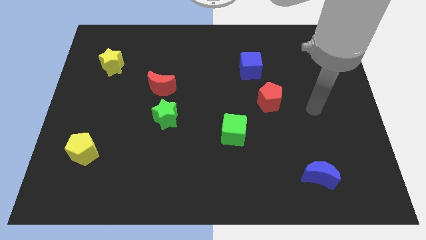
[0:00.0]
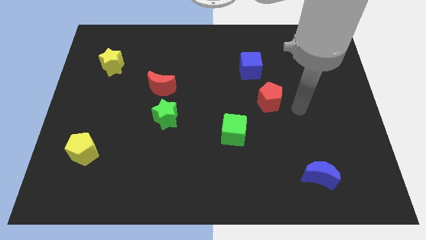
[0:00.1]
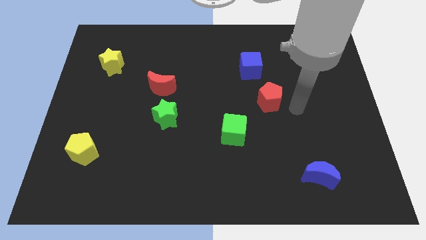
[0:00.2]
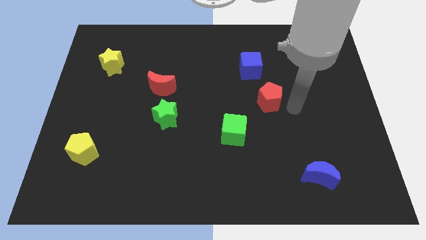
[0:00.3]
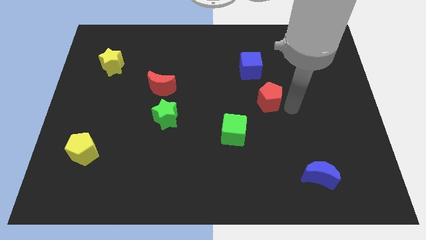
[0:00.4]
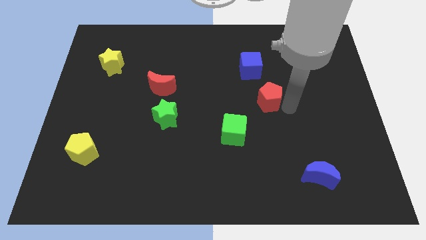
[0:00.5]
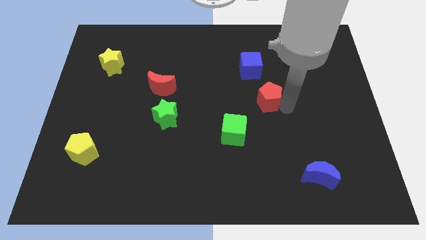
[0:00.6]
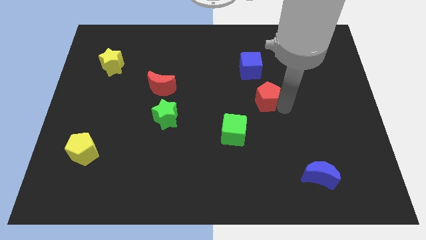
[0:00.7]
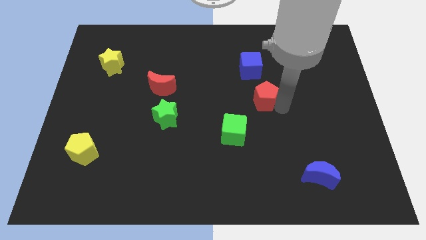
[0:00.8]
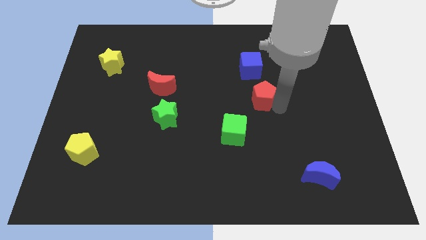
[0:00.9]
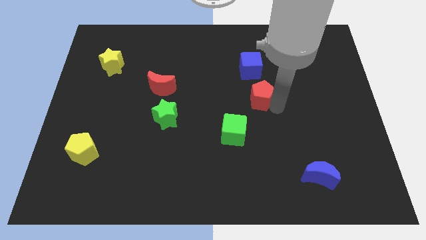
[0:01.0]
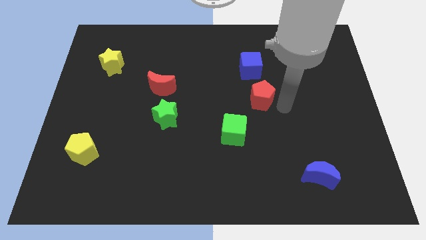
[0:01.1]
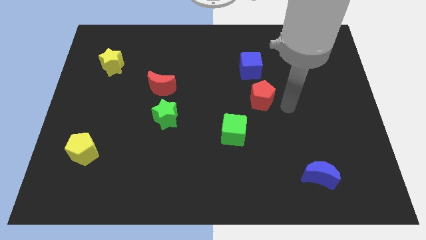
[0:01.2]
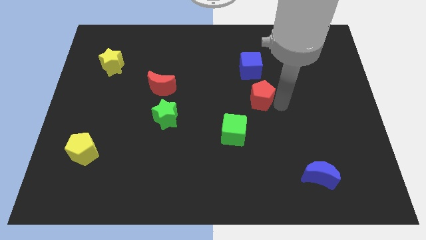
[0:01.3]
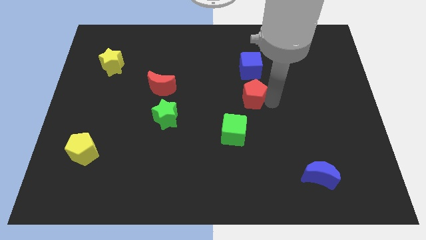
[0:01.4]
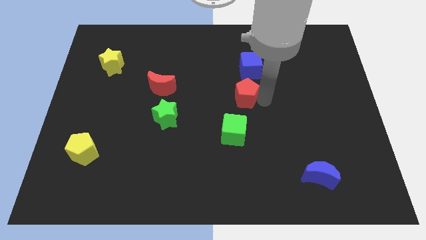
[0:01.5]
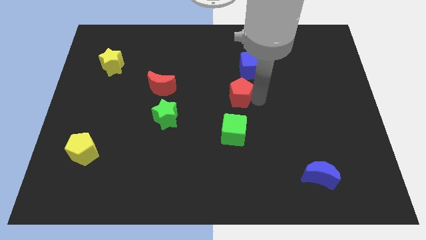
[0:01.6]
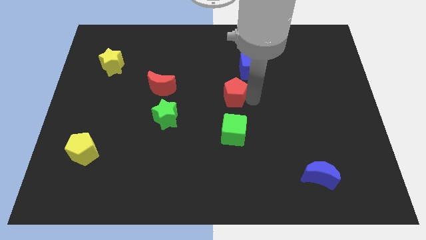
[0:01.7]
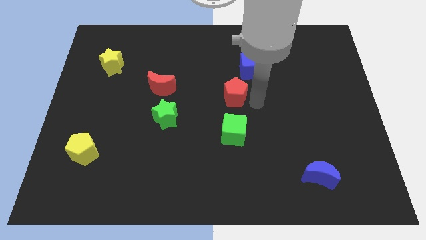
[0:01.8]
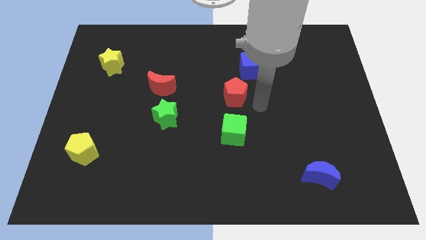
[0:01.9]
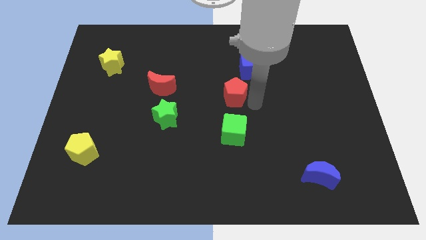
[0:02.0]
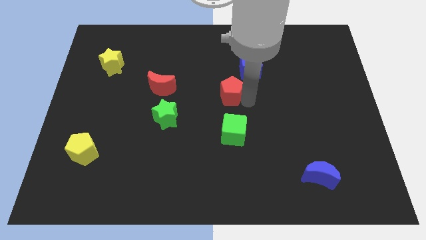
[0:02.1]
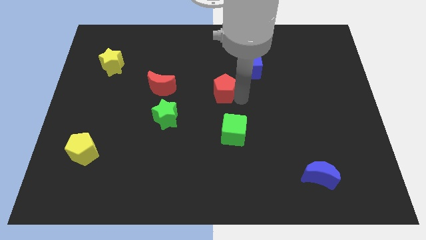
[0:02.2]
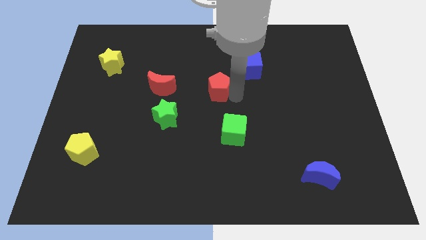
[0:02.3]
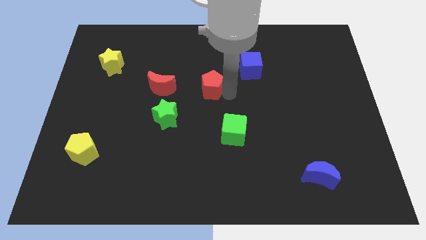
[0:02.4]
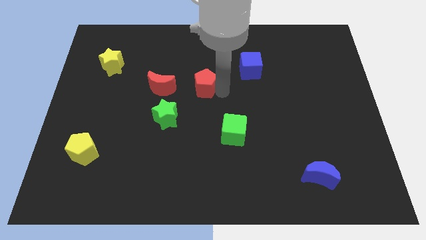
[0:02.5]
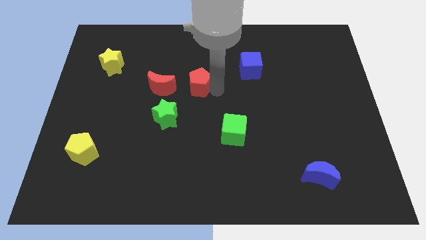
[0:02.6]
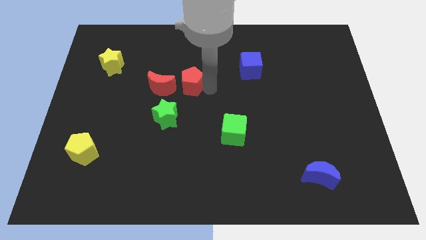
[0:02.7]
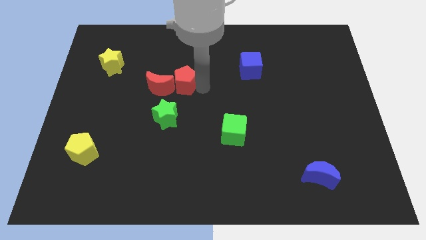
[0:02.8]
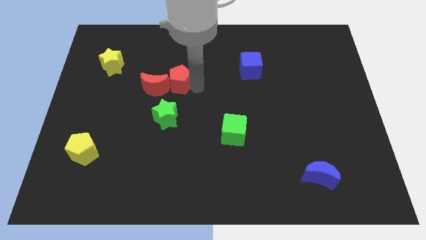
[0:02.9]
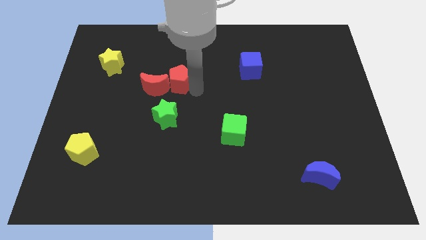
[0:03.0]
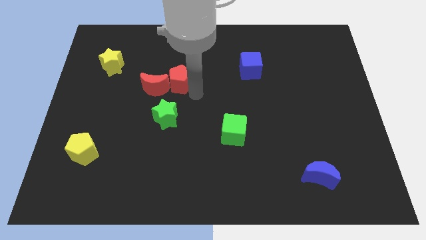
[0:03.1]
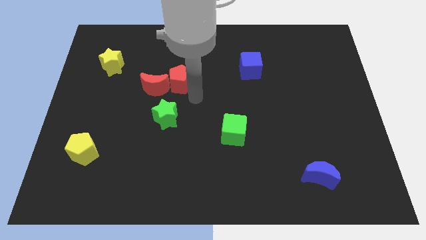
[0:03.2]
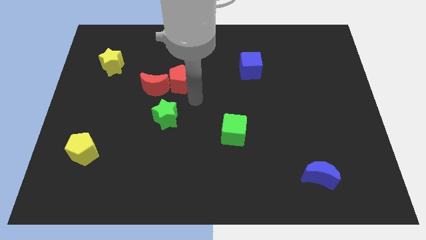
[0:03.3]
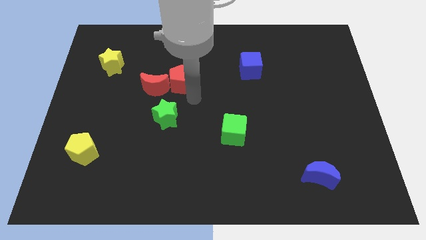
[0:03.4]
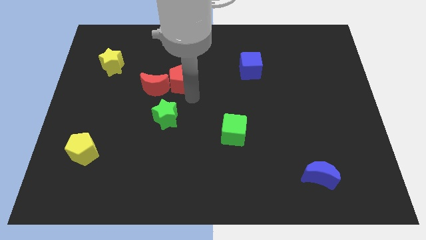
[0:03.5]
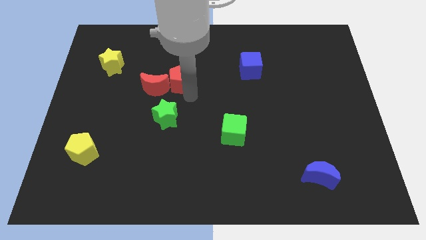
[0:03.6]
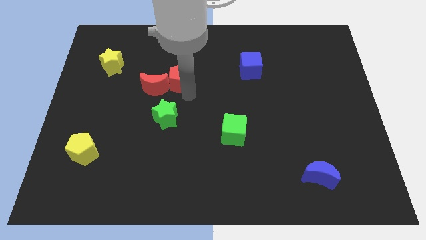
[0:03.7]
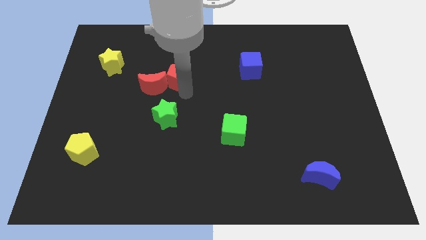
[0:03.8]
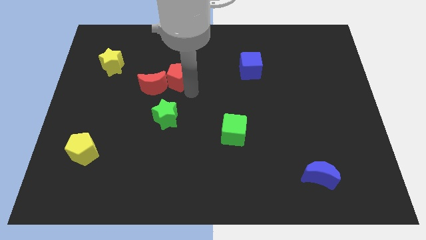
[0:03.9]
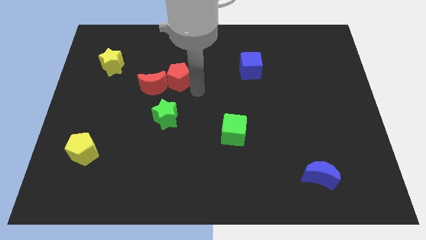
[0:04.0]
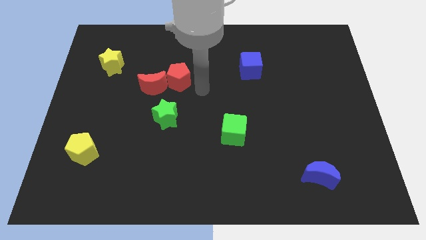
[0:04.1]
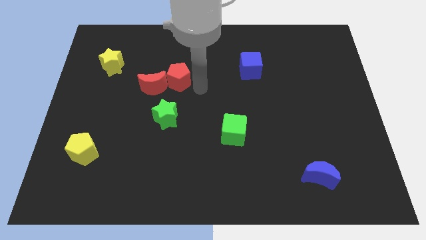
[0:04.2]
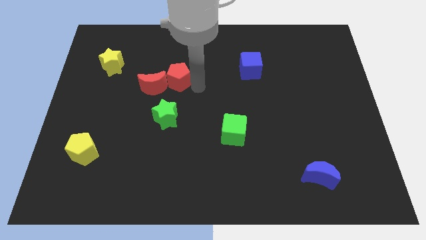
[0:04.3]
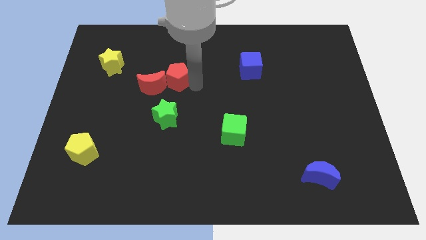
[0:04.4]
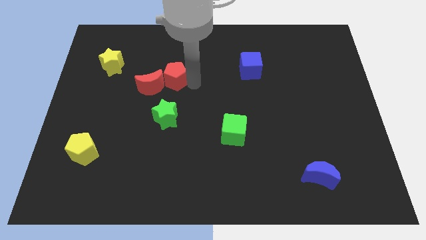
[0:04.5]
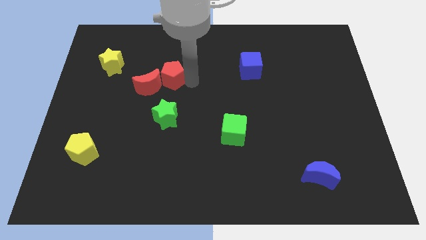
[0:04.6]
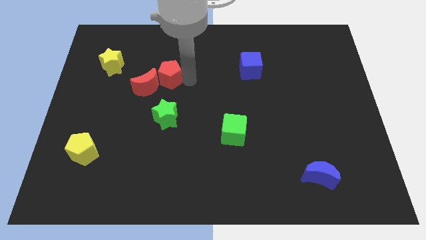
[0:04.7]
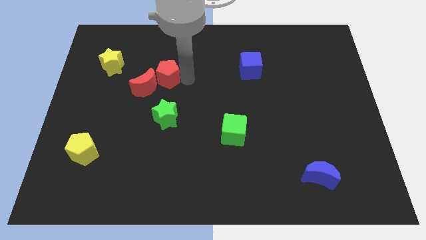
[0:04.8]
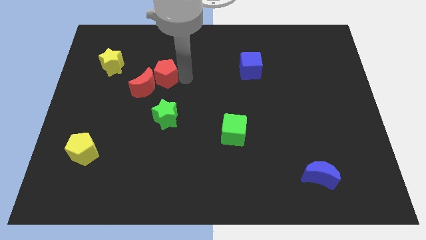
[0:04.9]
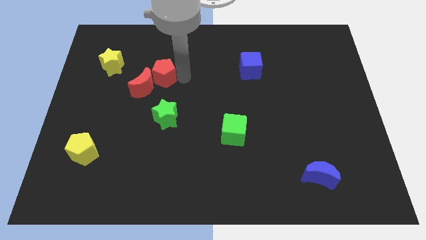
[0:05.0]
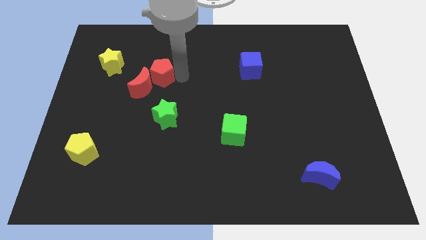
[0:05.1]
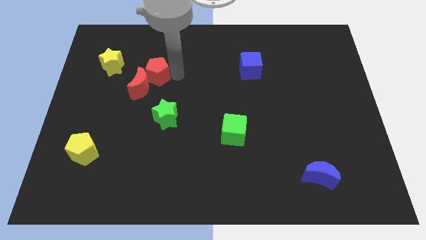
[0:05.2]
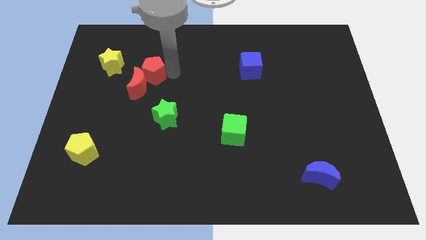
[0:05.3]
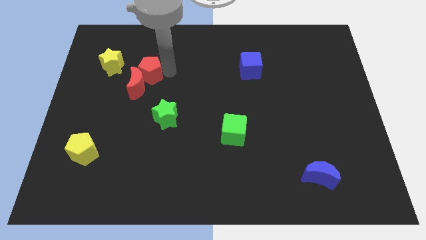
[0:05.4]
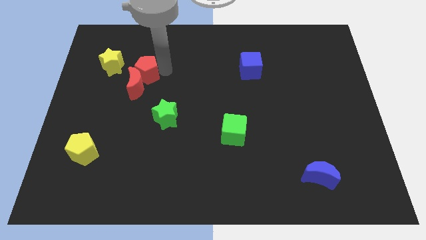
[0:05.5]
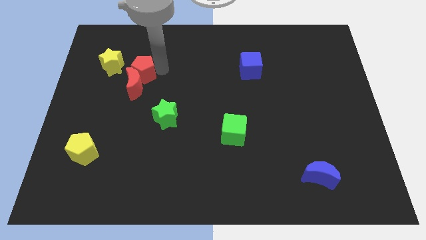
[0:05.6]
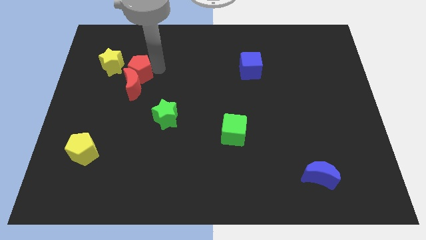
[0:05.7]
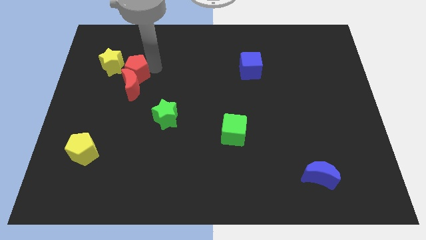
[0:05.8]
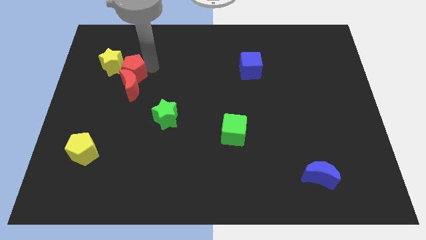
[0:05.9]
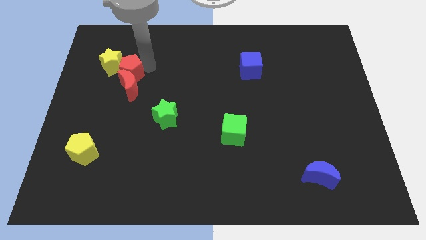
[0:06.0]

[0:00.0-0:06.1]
put the red pentagon towards the yellow star

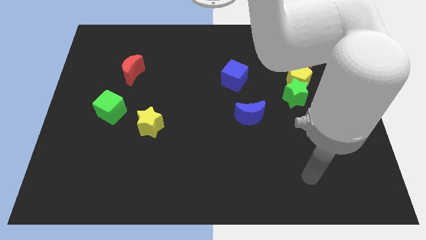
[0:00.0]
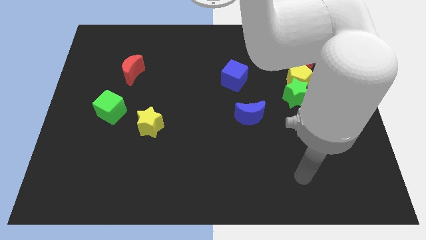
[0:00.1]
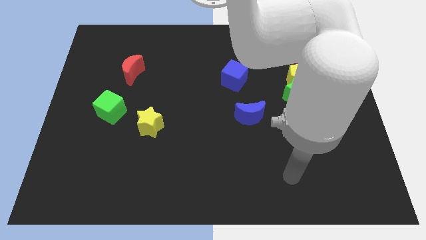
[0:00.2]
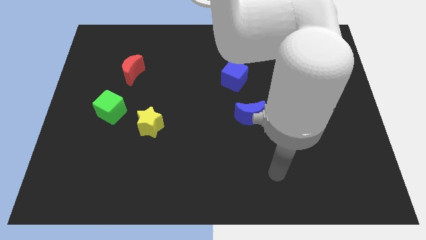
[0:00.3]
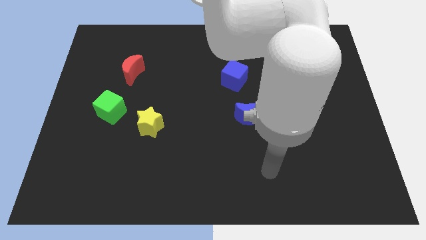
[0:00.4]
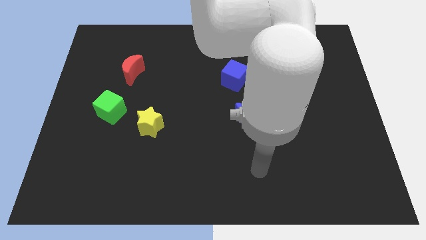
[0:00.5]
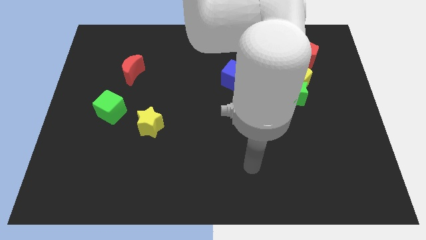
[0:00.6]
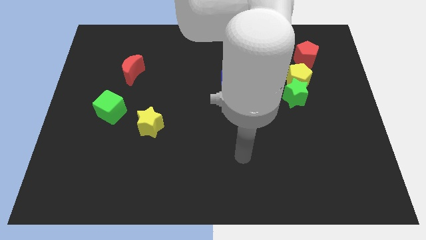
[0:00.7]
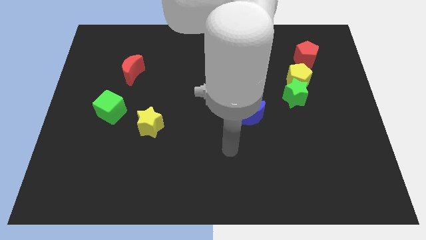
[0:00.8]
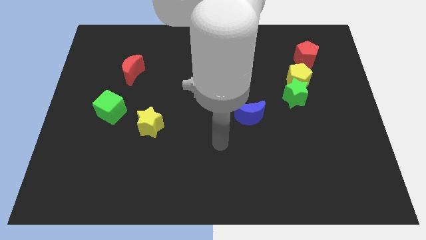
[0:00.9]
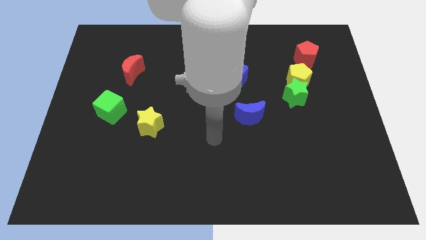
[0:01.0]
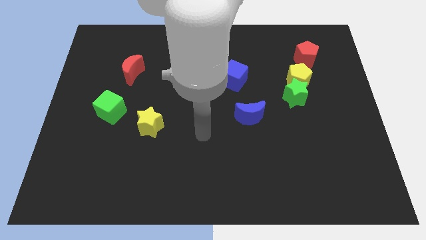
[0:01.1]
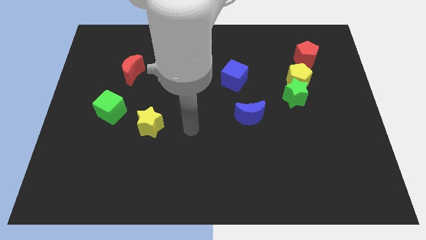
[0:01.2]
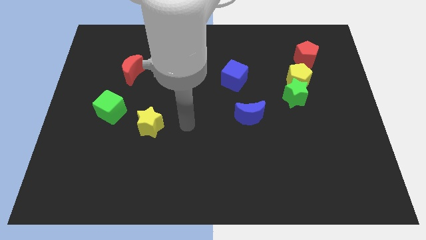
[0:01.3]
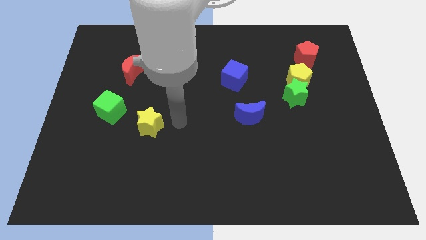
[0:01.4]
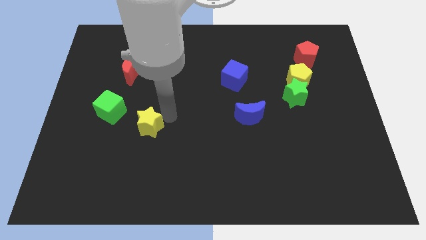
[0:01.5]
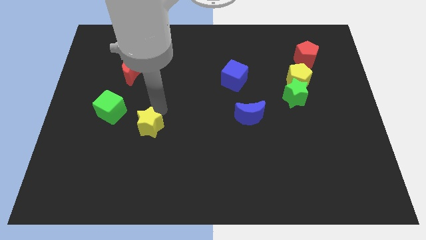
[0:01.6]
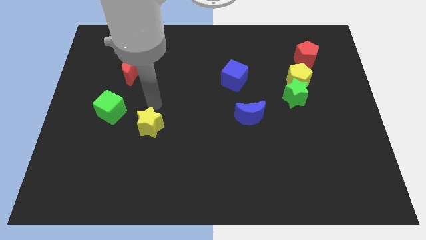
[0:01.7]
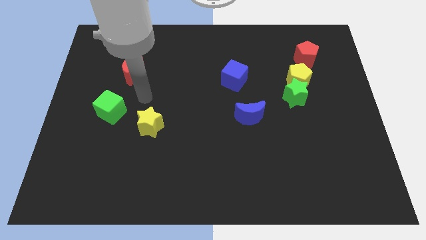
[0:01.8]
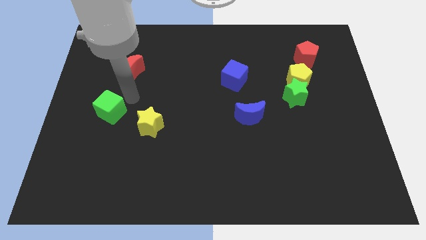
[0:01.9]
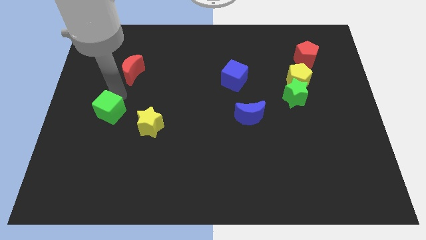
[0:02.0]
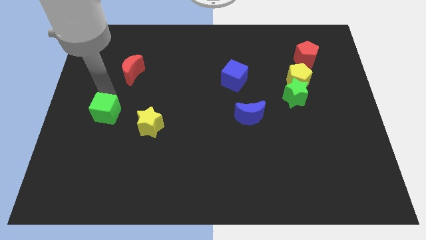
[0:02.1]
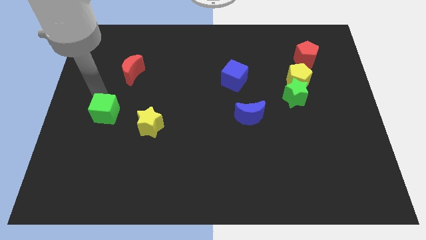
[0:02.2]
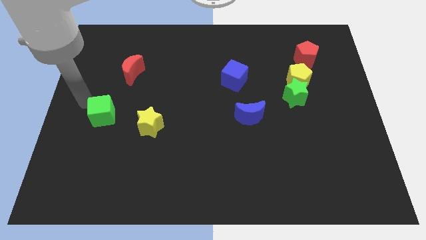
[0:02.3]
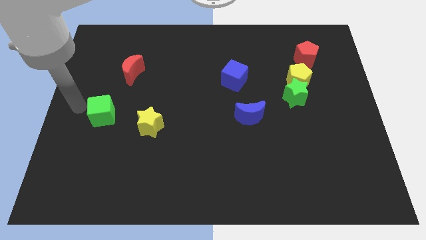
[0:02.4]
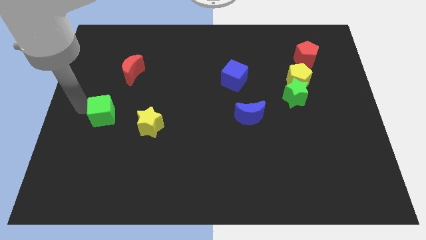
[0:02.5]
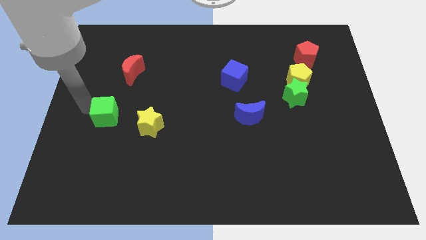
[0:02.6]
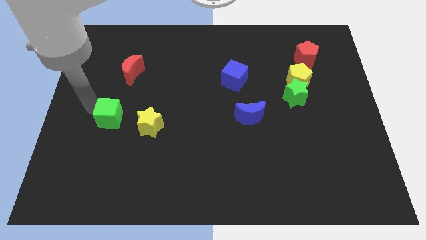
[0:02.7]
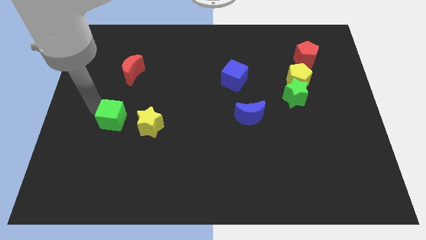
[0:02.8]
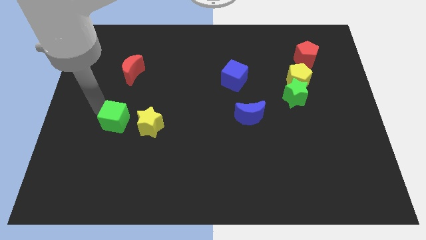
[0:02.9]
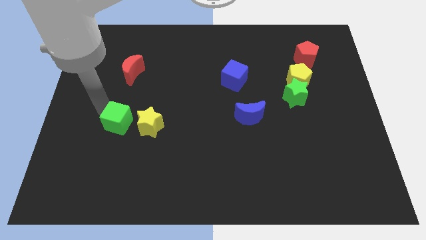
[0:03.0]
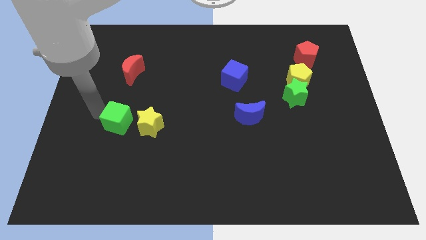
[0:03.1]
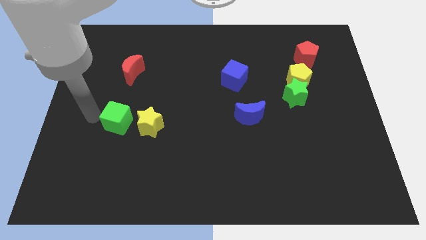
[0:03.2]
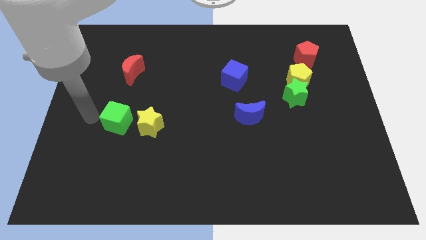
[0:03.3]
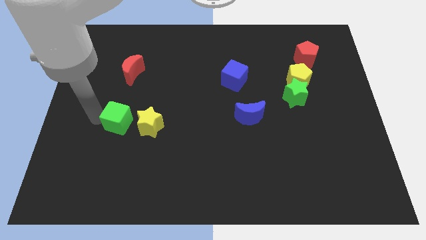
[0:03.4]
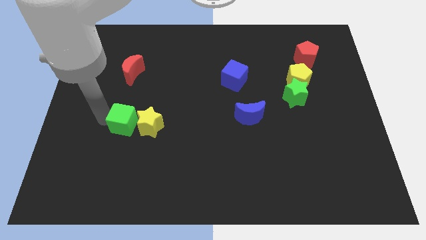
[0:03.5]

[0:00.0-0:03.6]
put the green cube to the yellow star
